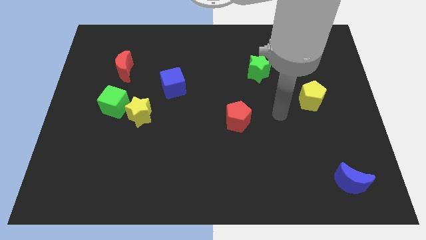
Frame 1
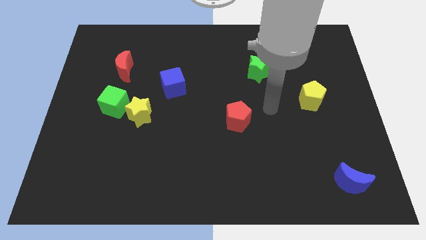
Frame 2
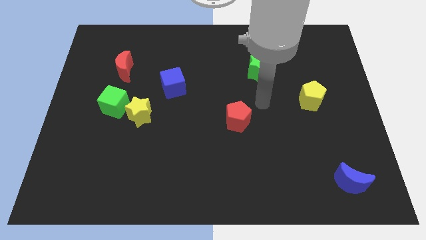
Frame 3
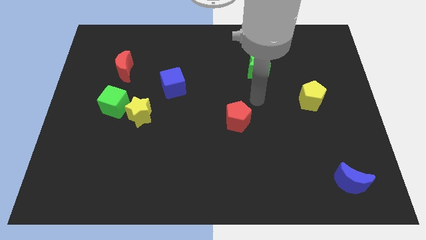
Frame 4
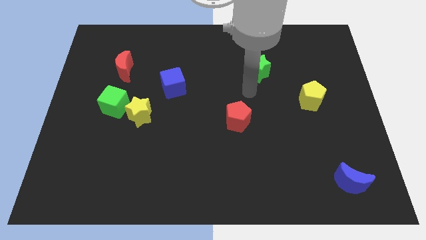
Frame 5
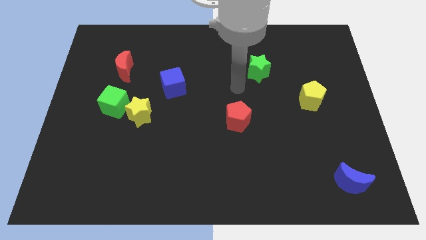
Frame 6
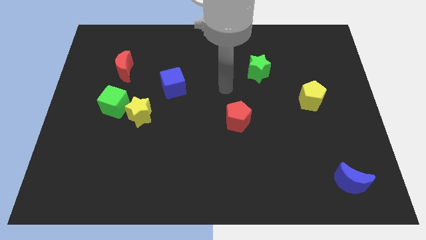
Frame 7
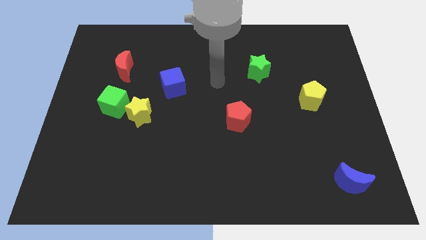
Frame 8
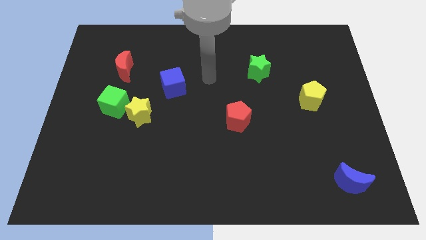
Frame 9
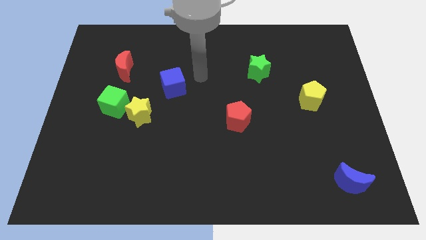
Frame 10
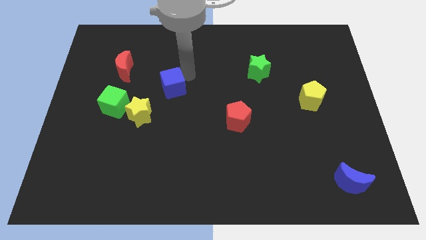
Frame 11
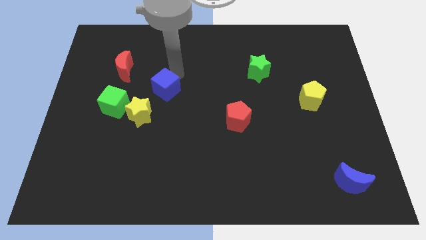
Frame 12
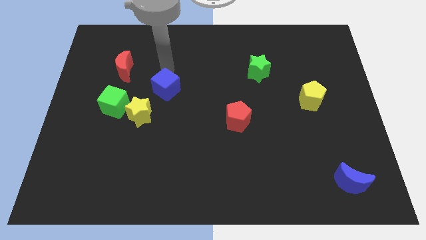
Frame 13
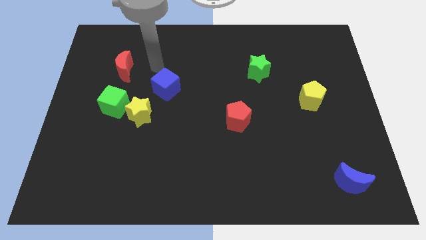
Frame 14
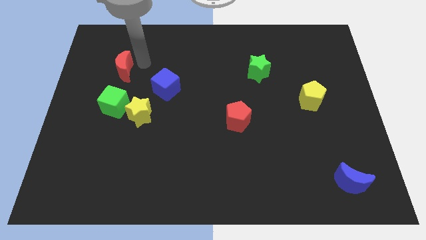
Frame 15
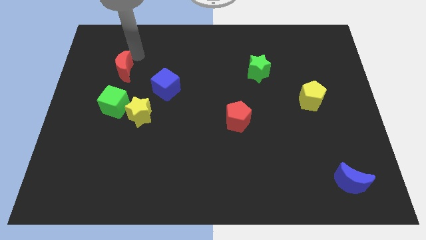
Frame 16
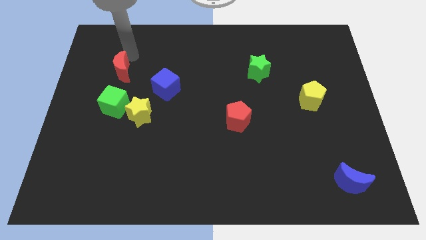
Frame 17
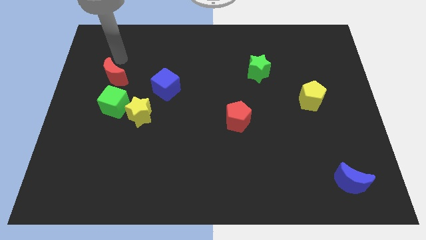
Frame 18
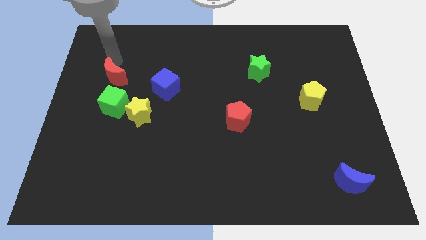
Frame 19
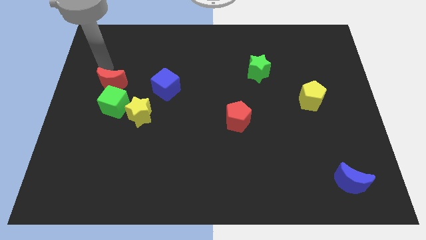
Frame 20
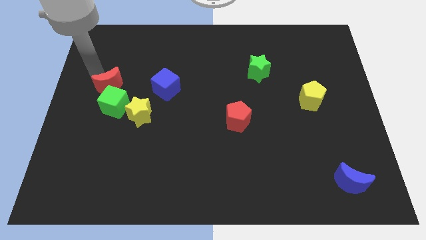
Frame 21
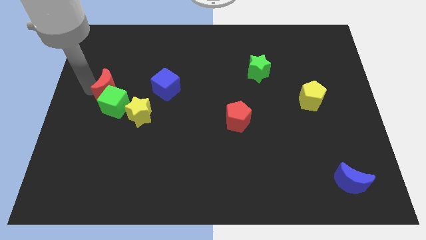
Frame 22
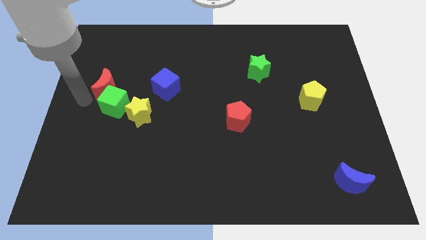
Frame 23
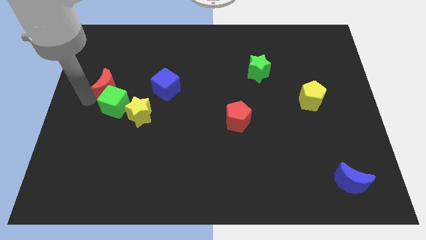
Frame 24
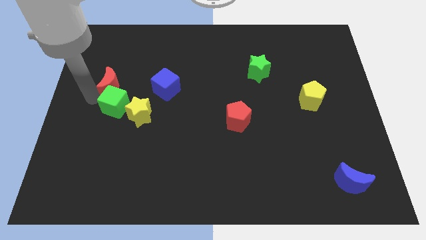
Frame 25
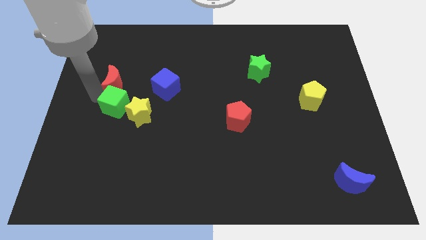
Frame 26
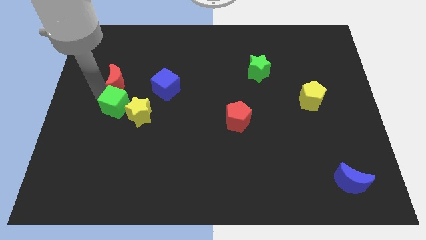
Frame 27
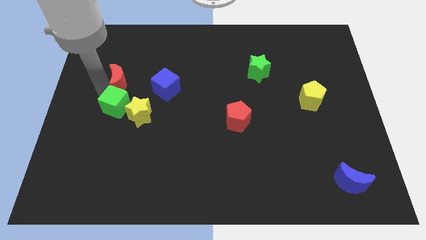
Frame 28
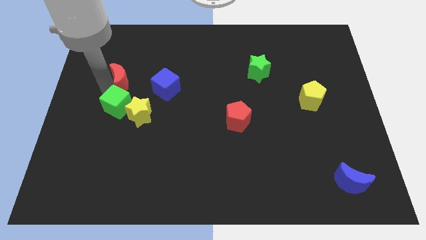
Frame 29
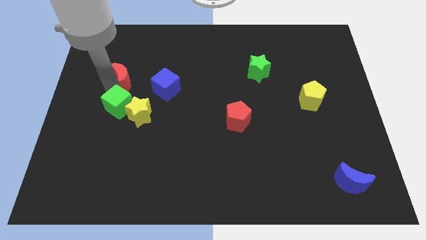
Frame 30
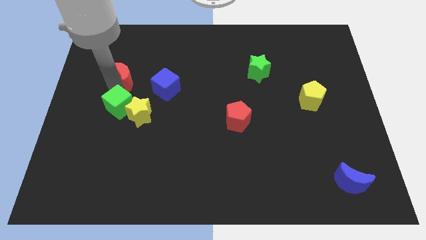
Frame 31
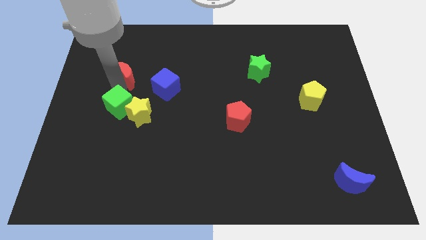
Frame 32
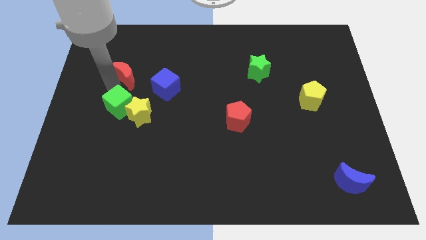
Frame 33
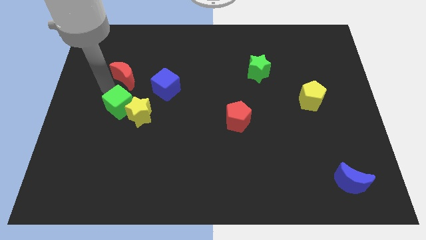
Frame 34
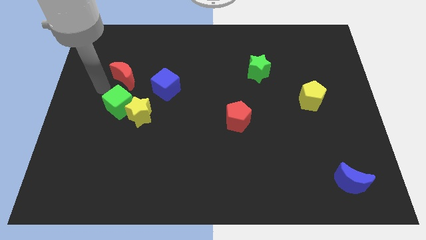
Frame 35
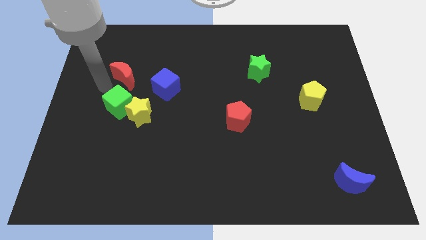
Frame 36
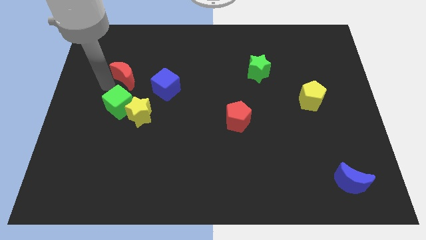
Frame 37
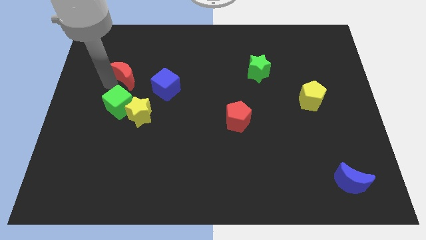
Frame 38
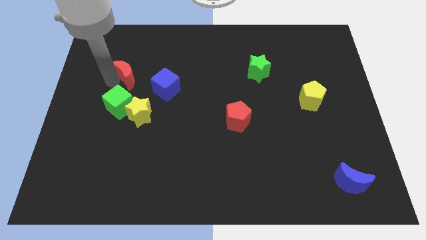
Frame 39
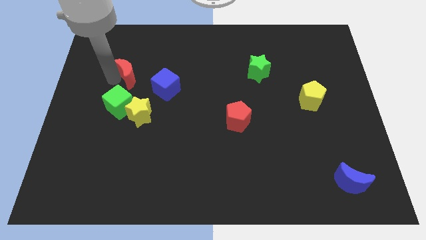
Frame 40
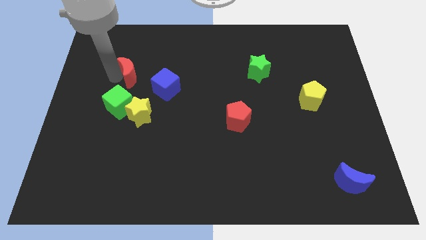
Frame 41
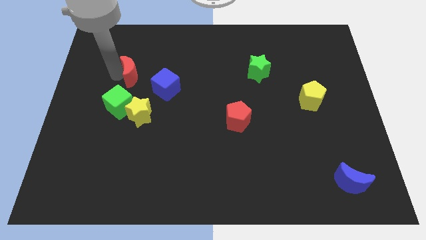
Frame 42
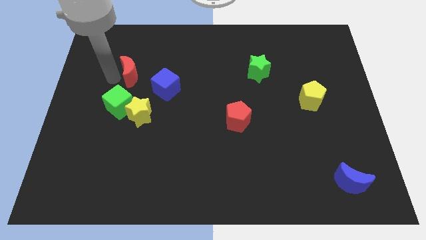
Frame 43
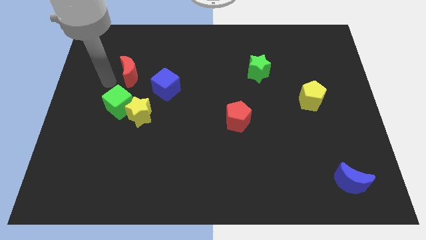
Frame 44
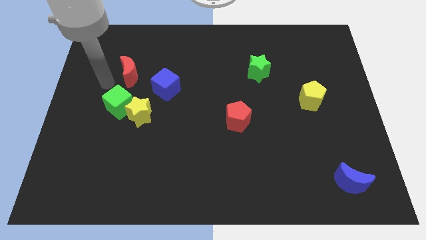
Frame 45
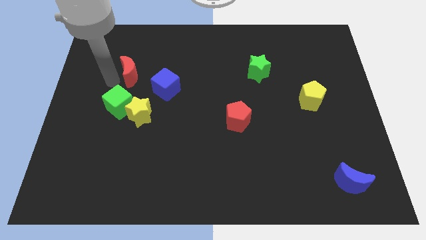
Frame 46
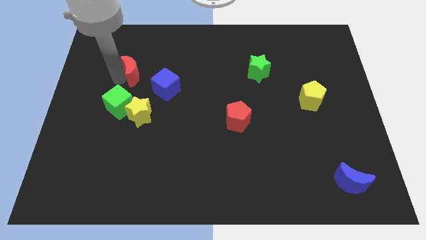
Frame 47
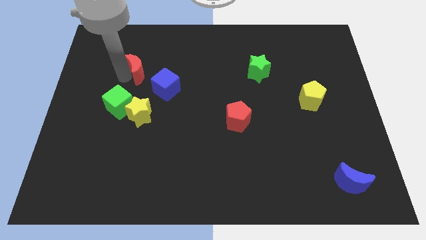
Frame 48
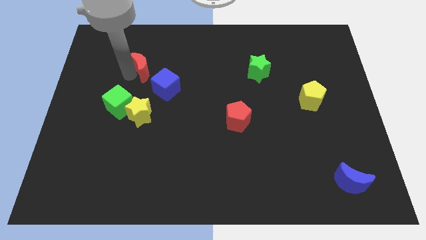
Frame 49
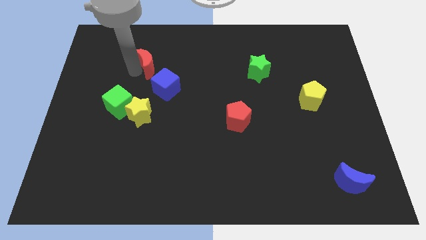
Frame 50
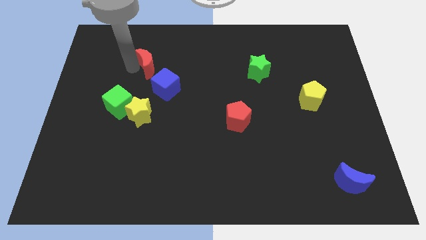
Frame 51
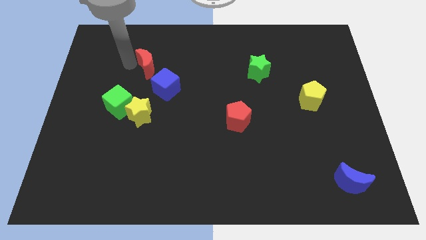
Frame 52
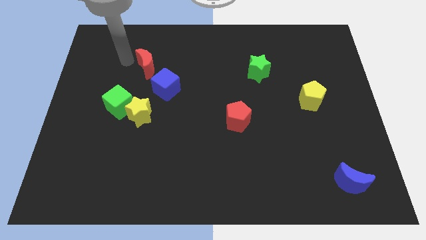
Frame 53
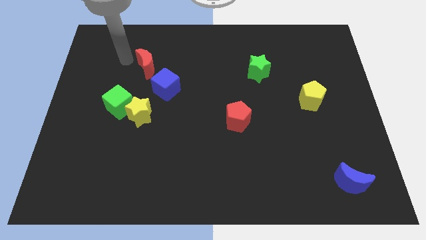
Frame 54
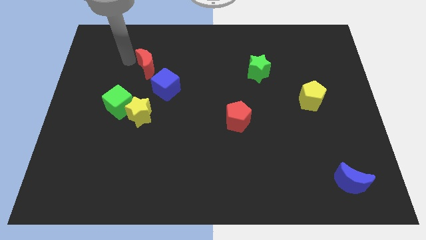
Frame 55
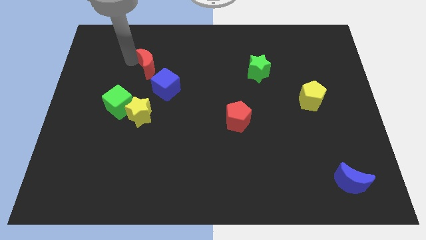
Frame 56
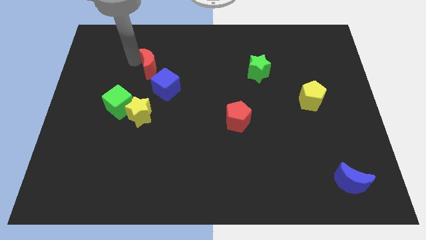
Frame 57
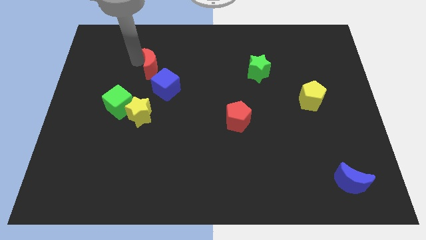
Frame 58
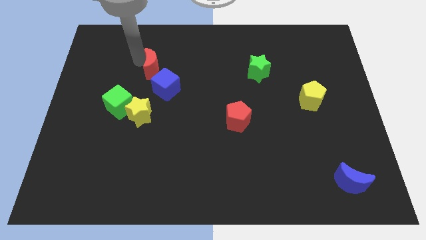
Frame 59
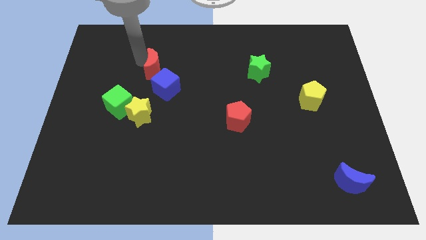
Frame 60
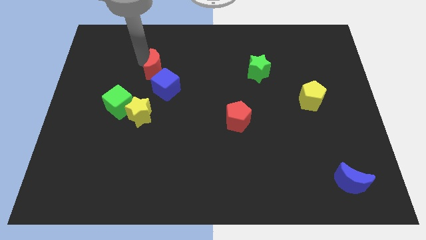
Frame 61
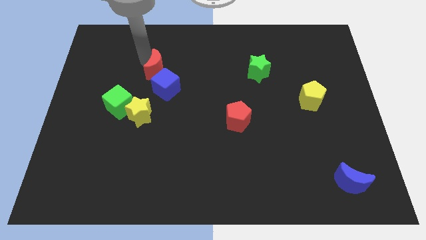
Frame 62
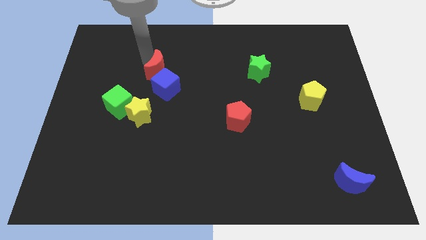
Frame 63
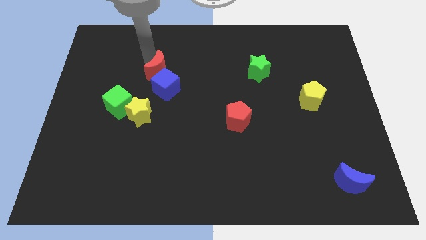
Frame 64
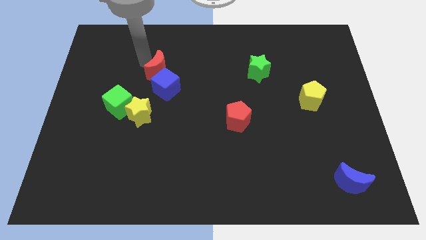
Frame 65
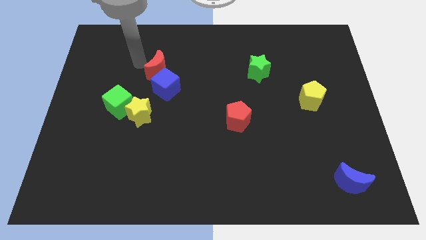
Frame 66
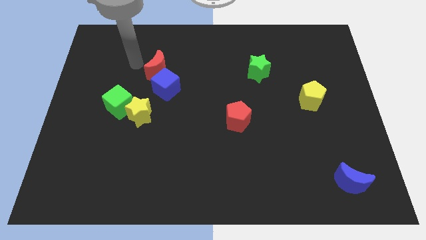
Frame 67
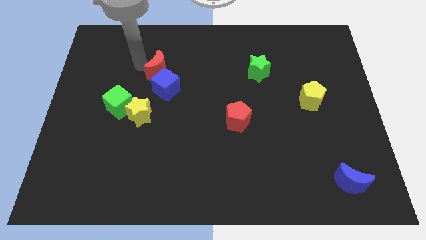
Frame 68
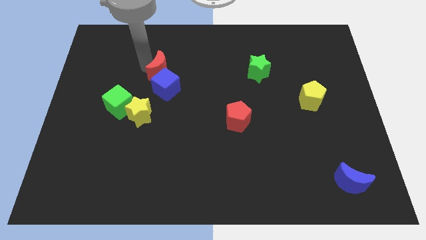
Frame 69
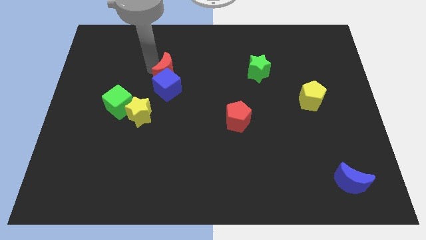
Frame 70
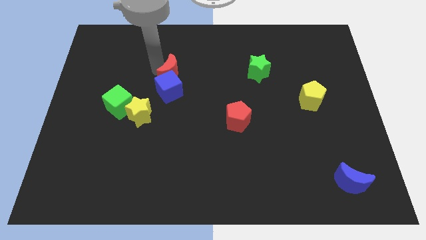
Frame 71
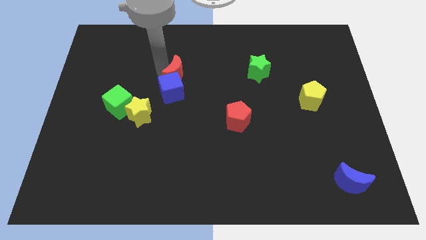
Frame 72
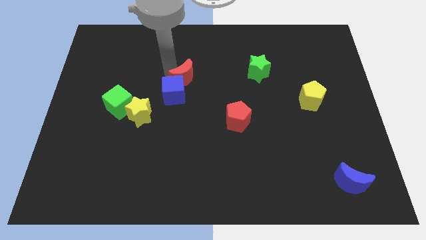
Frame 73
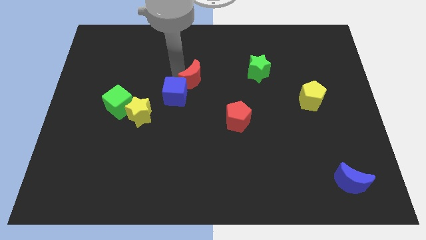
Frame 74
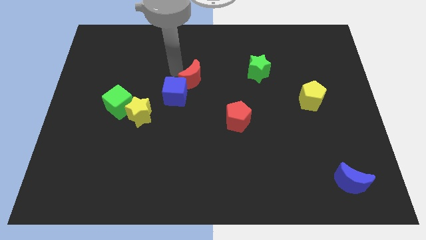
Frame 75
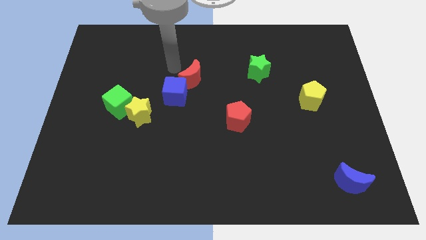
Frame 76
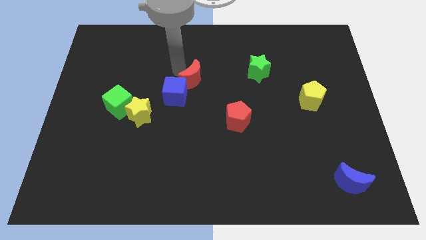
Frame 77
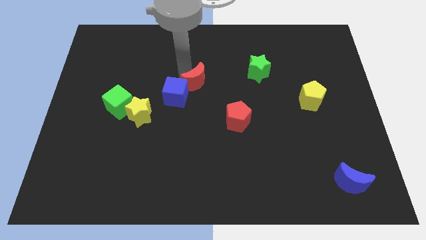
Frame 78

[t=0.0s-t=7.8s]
slide the red moon just right of the blue cube

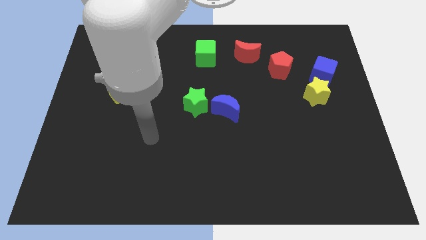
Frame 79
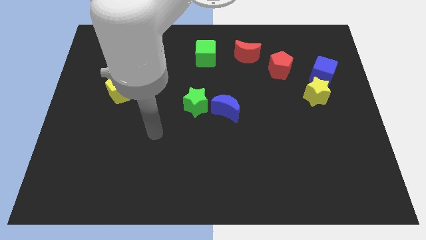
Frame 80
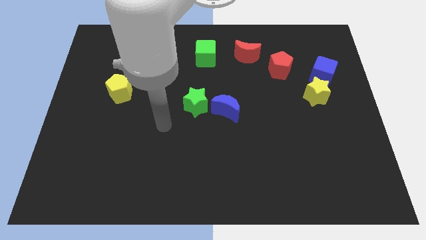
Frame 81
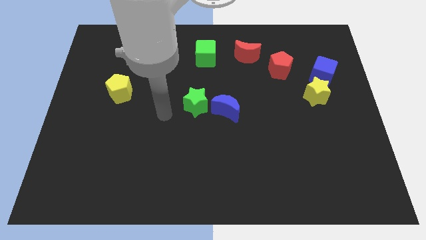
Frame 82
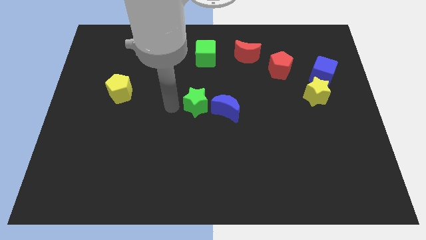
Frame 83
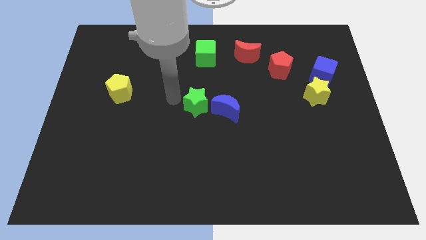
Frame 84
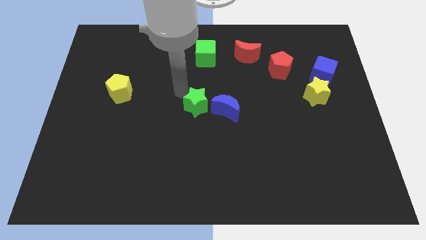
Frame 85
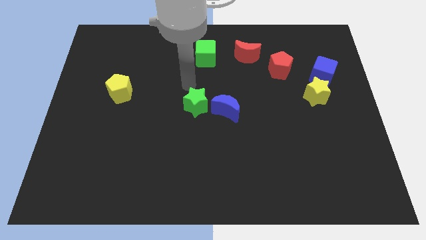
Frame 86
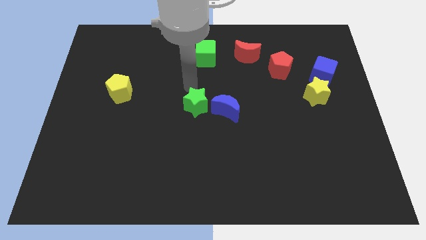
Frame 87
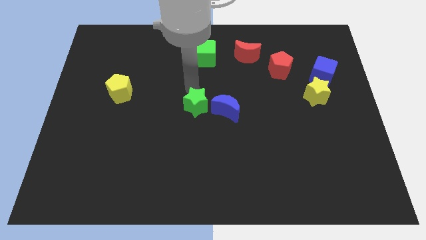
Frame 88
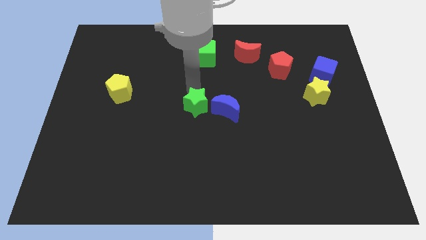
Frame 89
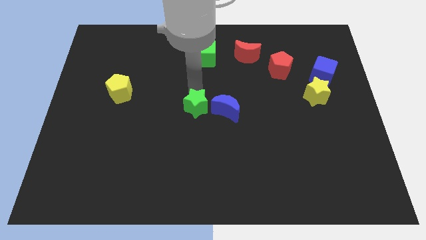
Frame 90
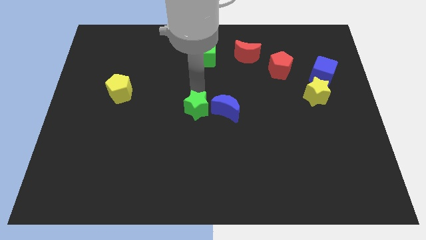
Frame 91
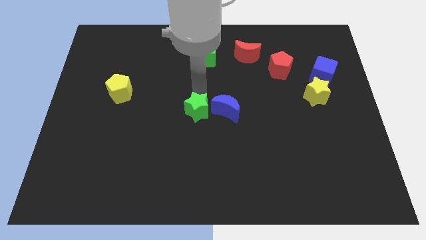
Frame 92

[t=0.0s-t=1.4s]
move the green star diagonally down and to the left of the blue moon
